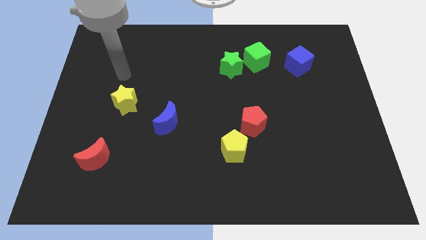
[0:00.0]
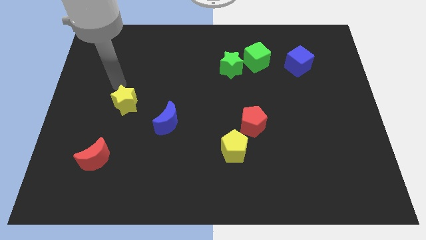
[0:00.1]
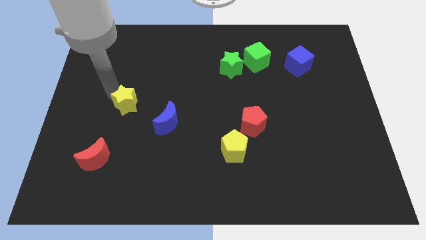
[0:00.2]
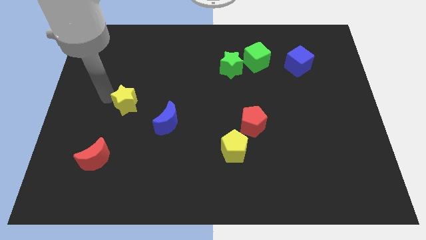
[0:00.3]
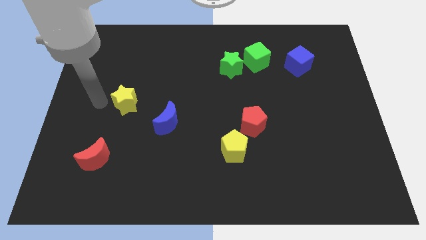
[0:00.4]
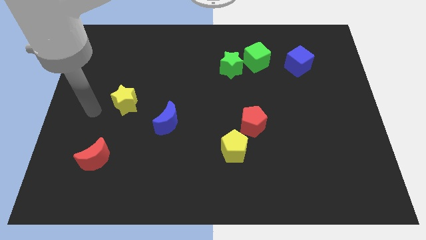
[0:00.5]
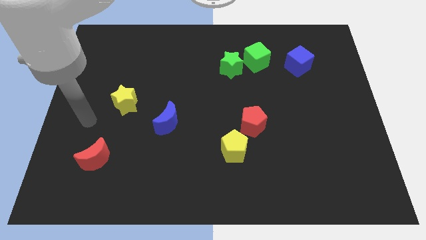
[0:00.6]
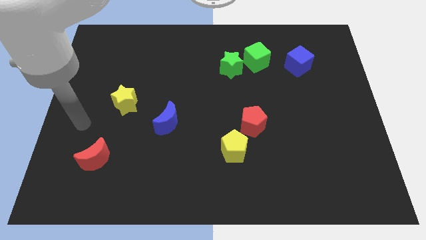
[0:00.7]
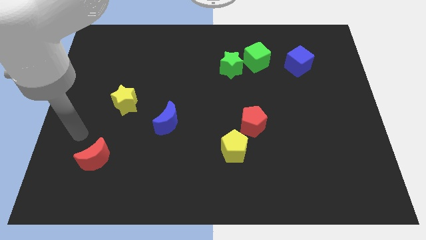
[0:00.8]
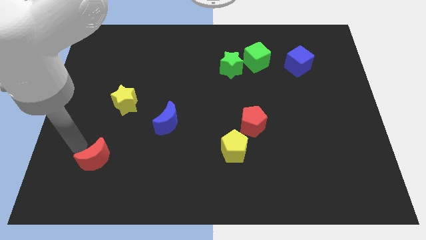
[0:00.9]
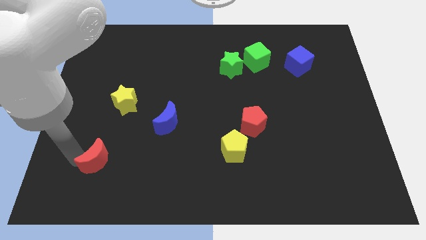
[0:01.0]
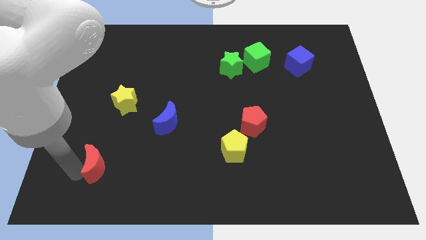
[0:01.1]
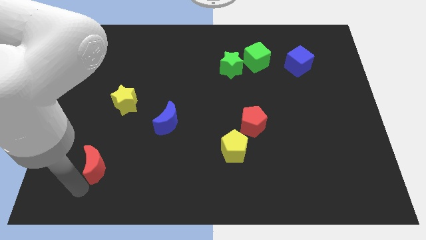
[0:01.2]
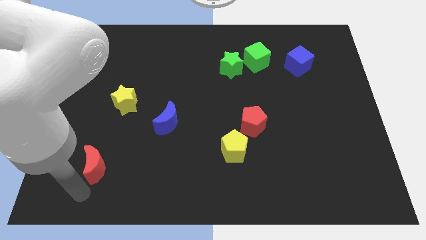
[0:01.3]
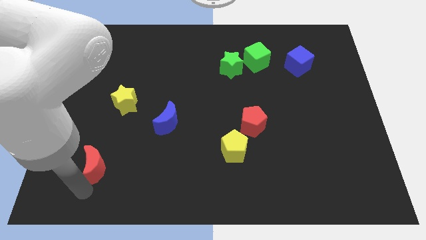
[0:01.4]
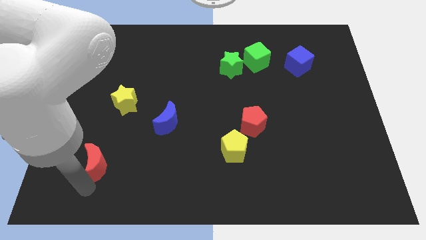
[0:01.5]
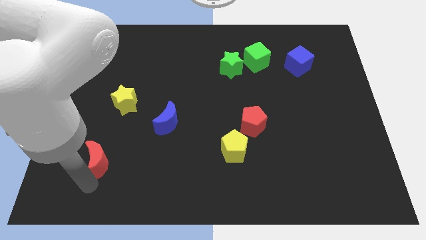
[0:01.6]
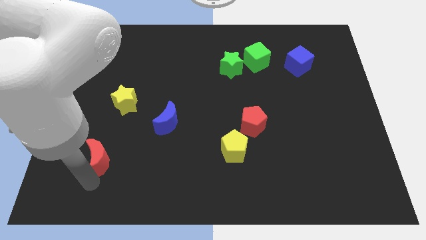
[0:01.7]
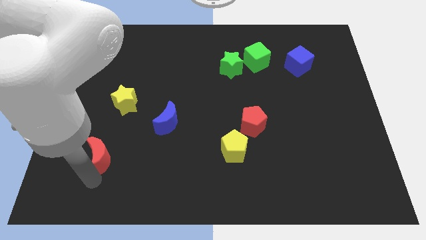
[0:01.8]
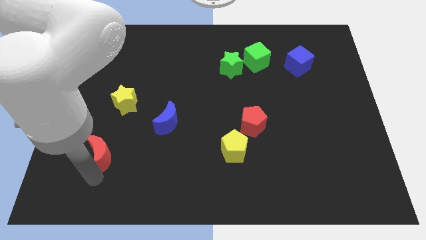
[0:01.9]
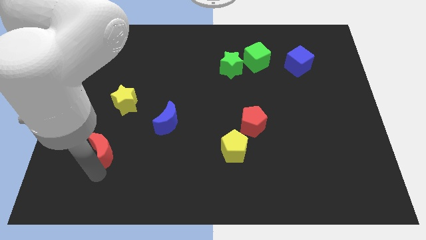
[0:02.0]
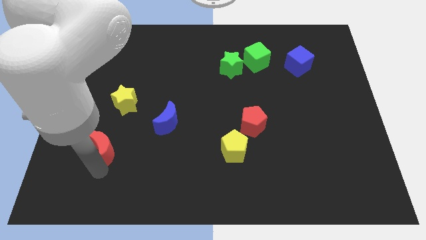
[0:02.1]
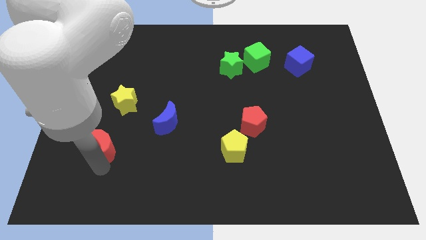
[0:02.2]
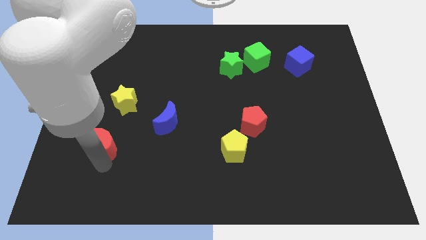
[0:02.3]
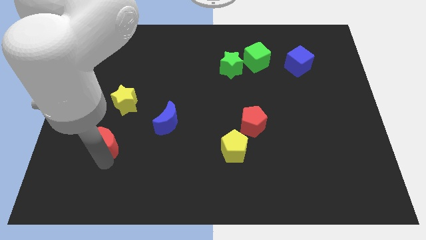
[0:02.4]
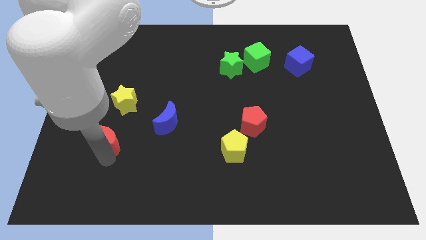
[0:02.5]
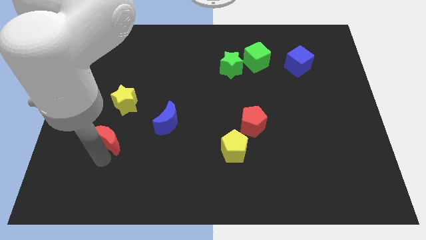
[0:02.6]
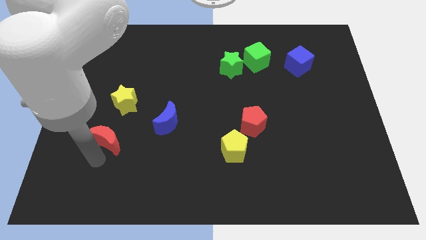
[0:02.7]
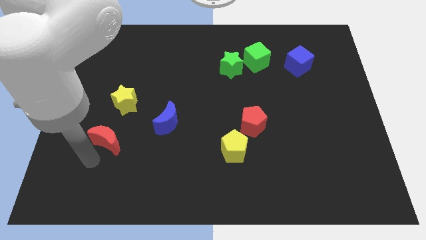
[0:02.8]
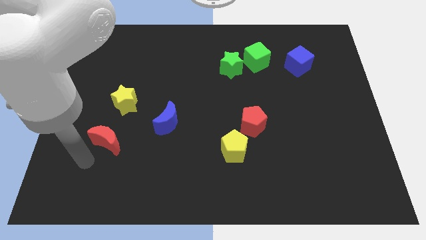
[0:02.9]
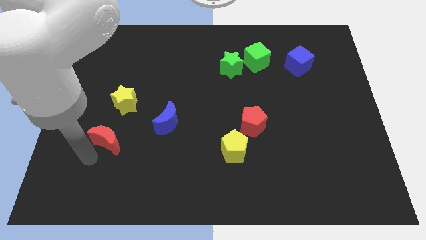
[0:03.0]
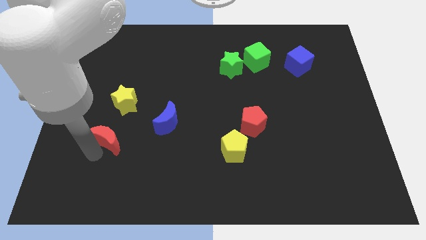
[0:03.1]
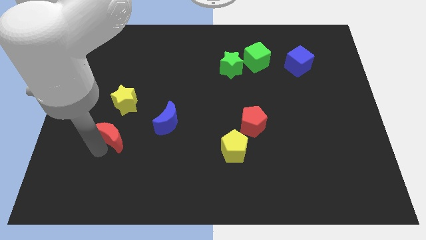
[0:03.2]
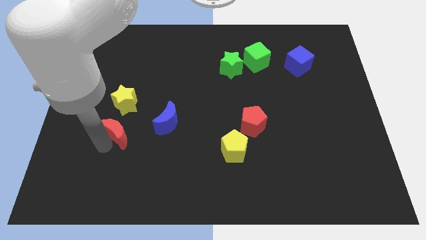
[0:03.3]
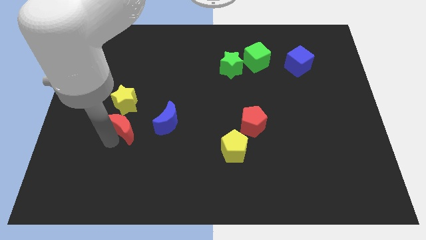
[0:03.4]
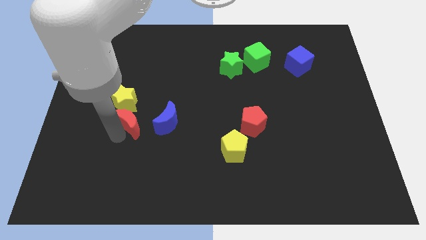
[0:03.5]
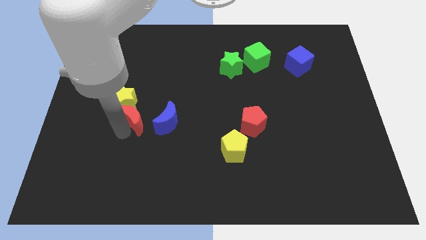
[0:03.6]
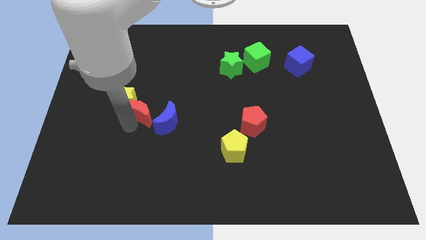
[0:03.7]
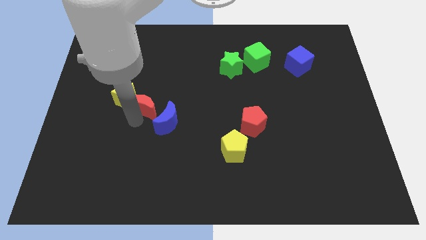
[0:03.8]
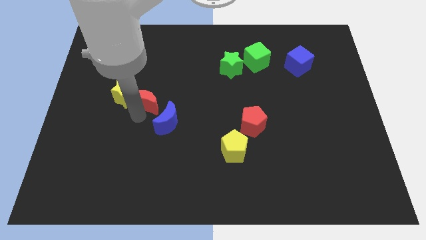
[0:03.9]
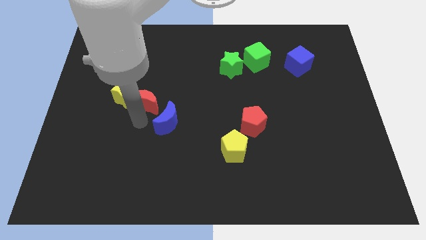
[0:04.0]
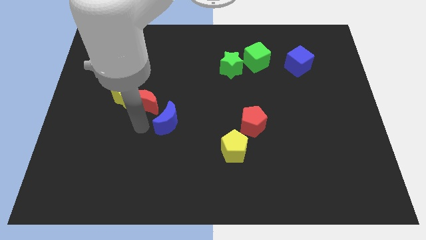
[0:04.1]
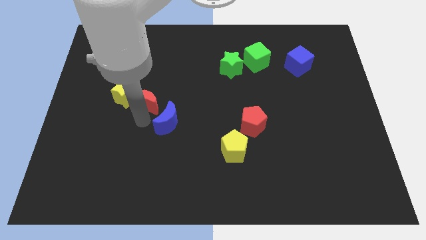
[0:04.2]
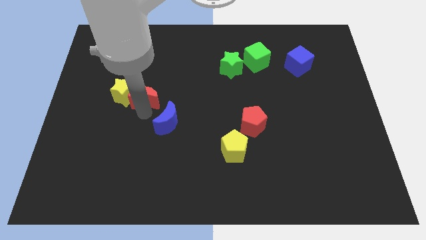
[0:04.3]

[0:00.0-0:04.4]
put the red moon diagonally up and to the right of the yellow star

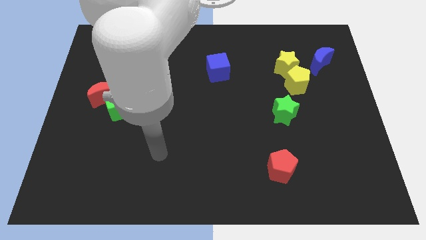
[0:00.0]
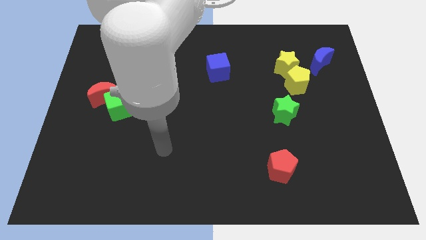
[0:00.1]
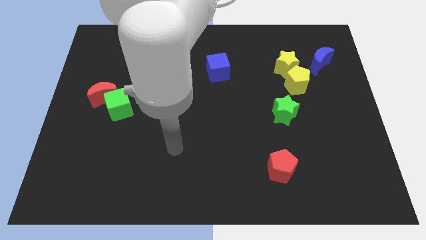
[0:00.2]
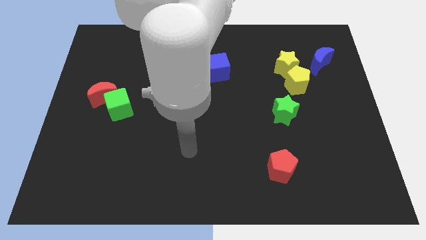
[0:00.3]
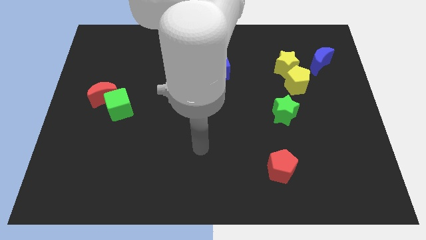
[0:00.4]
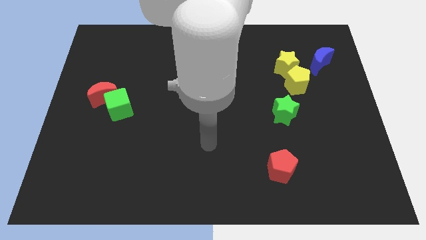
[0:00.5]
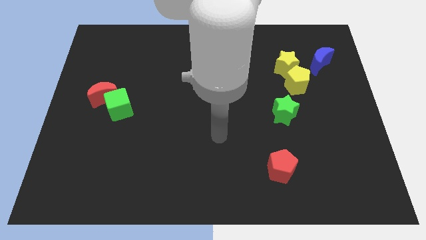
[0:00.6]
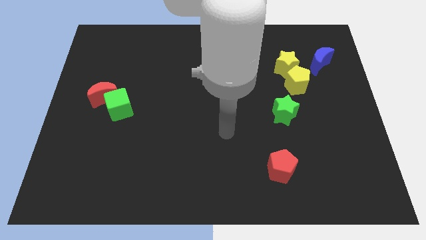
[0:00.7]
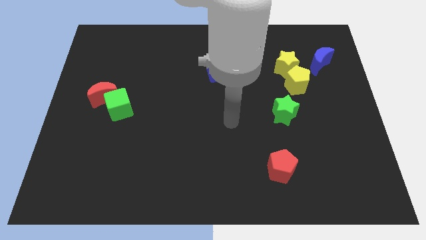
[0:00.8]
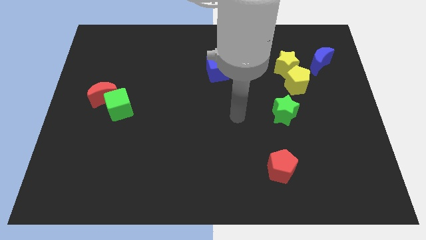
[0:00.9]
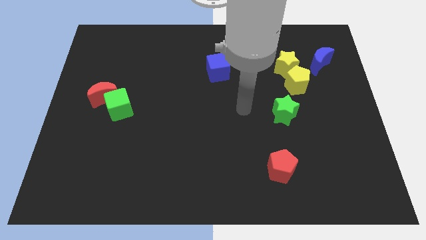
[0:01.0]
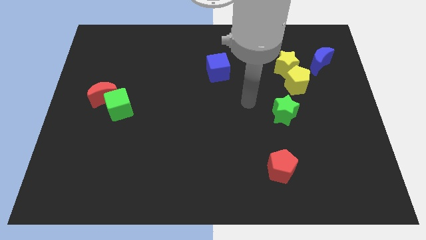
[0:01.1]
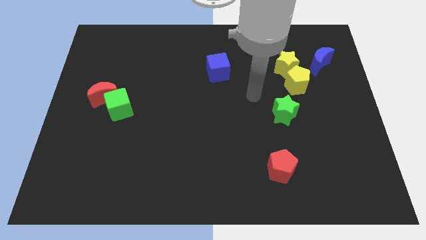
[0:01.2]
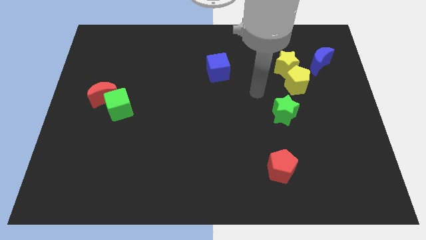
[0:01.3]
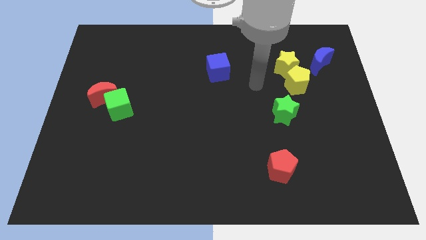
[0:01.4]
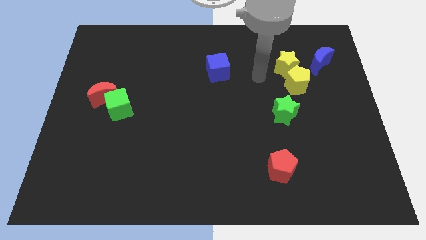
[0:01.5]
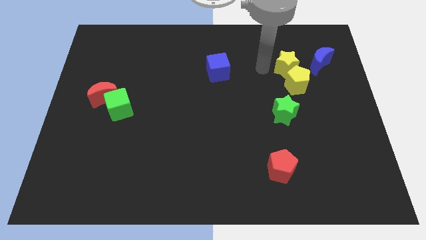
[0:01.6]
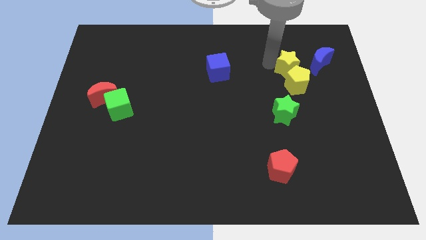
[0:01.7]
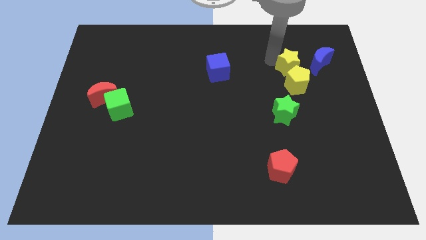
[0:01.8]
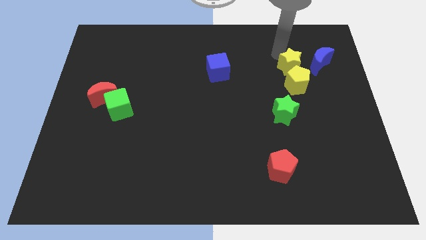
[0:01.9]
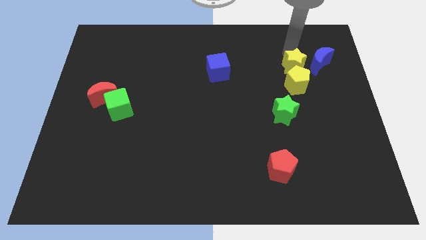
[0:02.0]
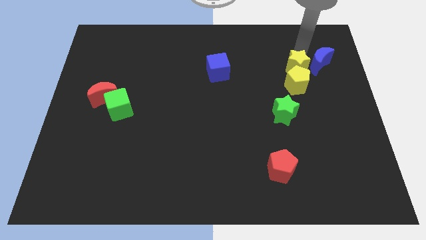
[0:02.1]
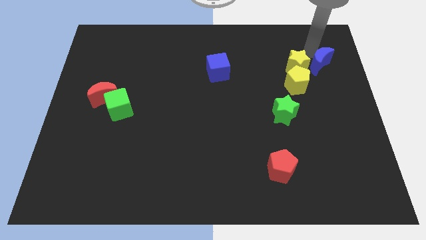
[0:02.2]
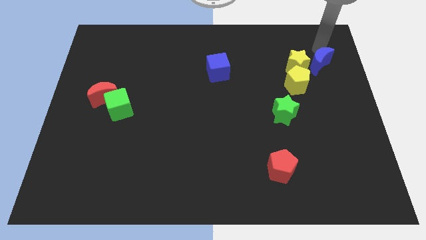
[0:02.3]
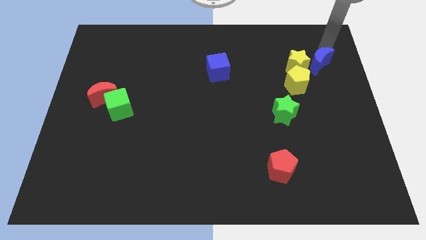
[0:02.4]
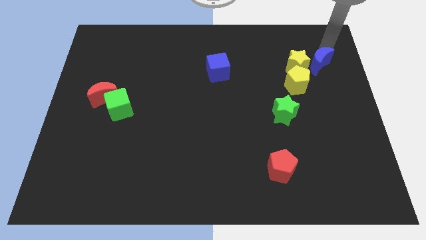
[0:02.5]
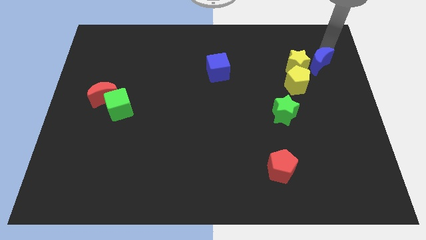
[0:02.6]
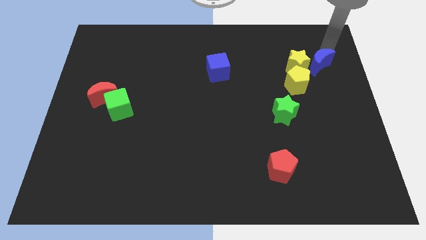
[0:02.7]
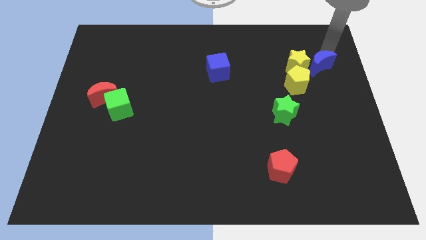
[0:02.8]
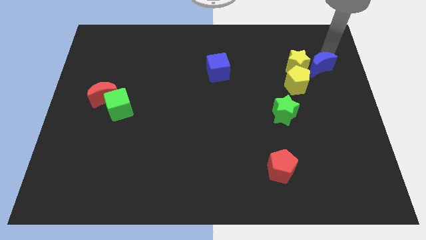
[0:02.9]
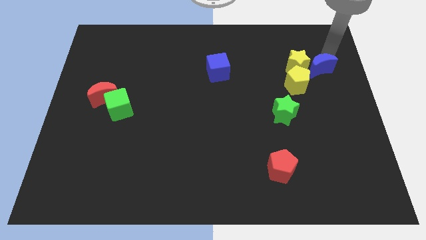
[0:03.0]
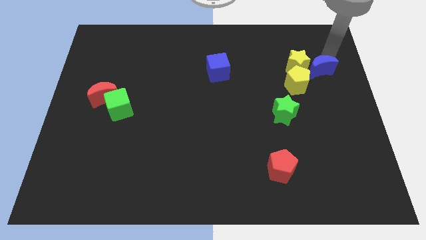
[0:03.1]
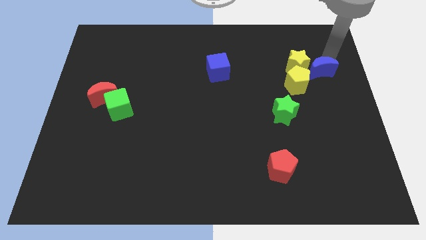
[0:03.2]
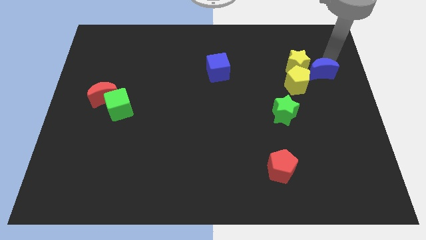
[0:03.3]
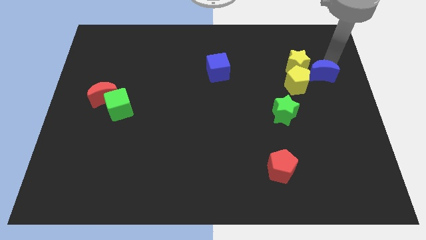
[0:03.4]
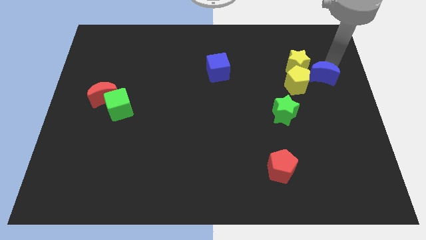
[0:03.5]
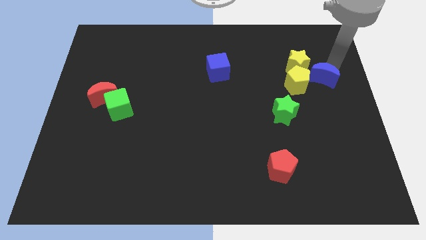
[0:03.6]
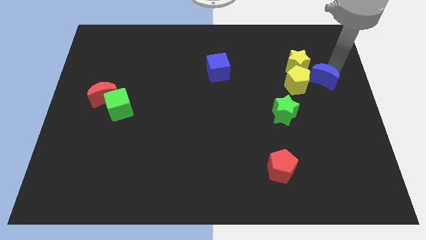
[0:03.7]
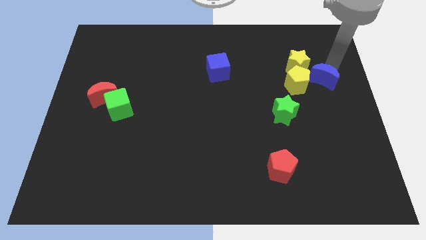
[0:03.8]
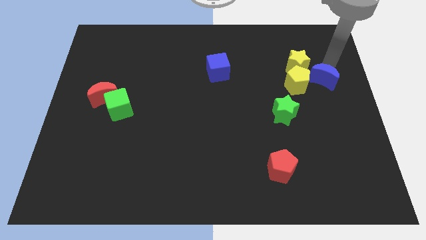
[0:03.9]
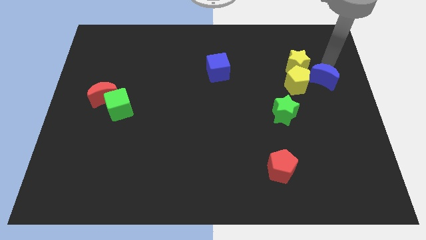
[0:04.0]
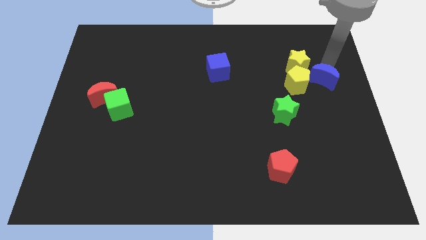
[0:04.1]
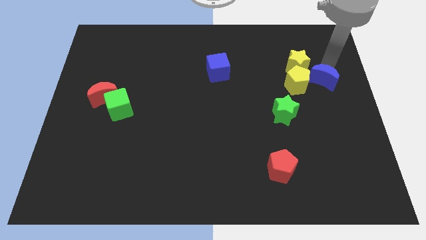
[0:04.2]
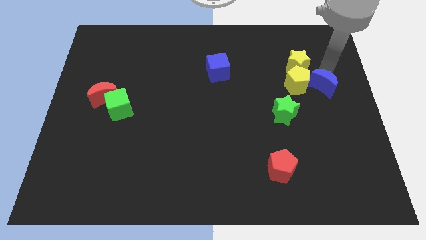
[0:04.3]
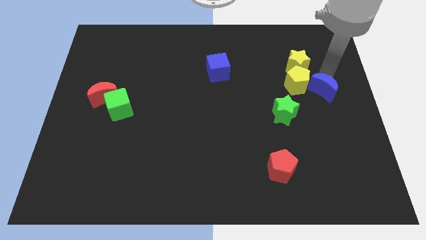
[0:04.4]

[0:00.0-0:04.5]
move the blue moon diagonally up and to the right of the green star
